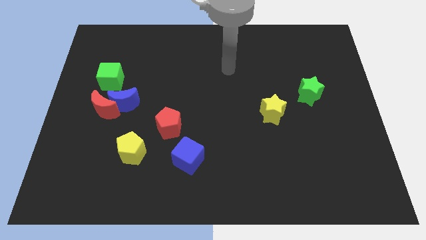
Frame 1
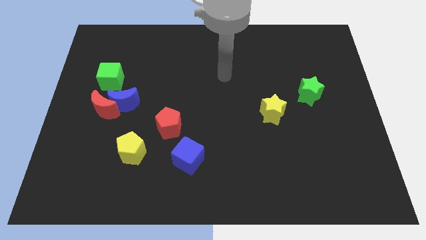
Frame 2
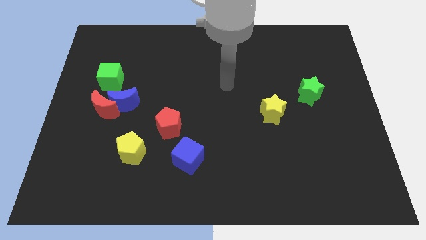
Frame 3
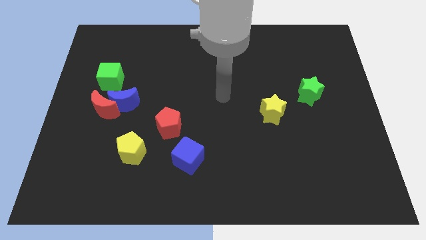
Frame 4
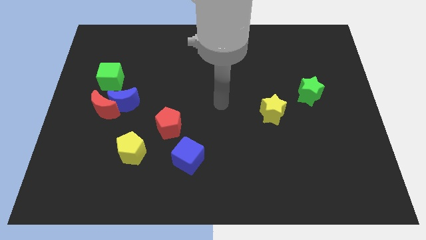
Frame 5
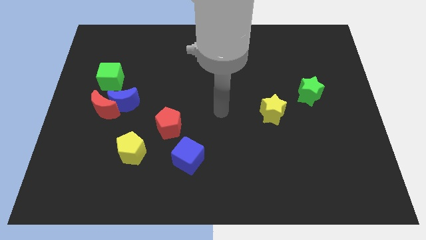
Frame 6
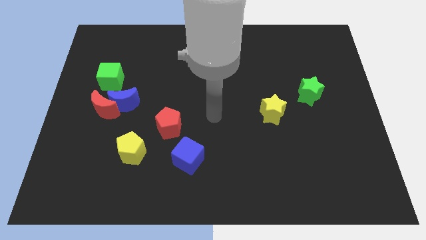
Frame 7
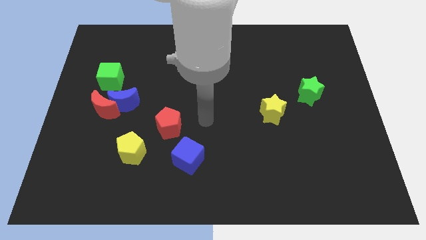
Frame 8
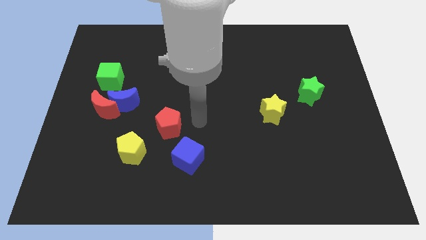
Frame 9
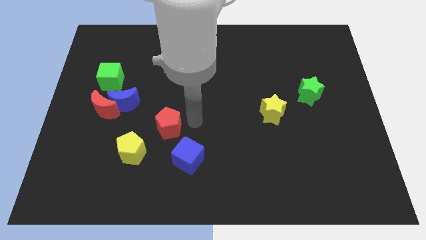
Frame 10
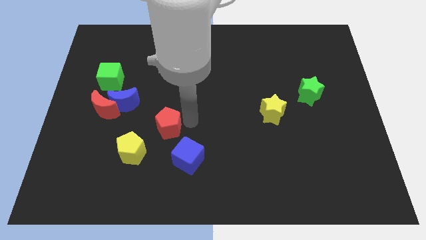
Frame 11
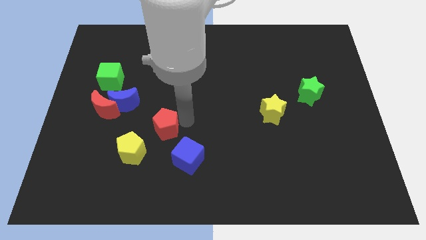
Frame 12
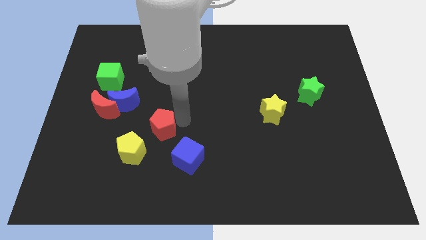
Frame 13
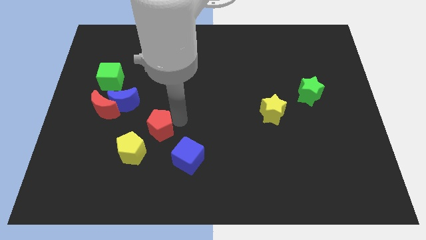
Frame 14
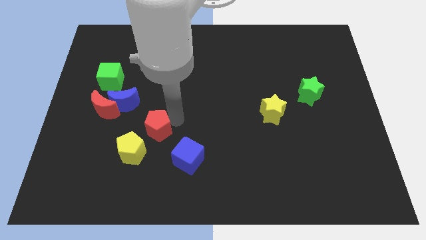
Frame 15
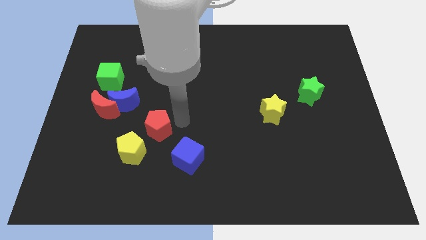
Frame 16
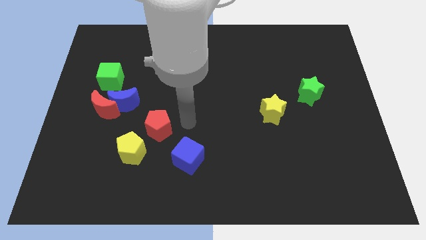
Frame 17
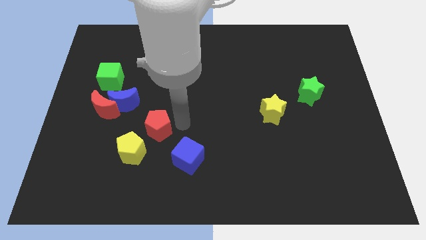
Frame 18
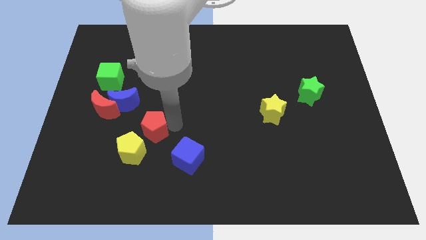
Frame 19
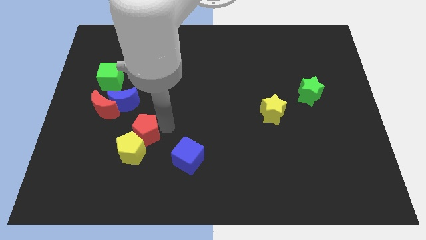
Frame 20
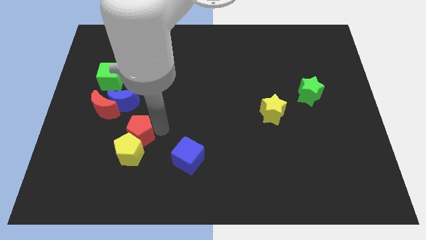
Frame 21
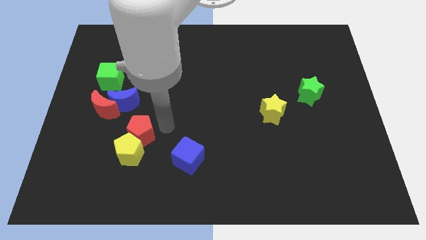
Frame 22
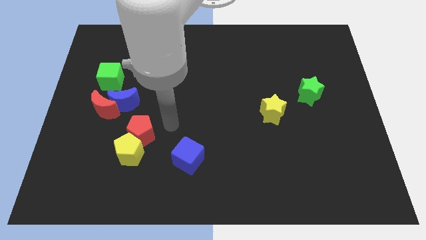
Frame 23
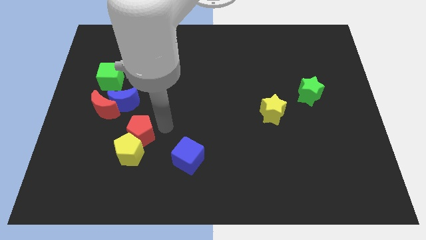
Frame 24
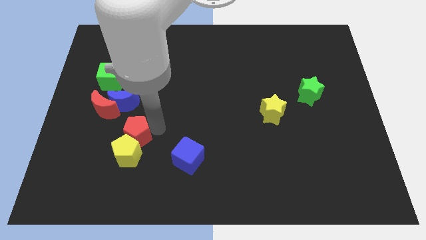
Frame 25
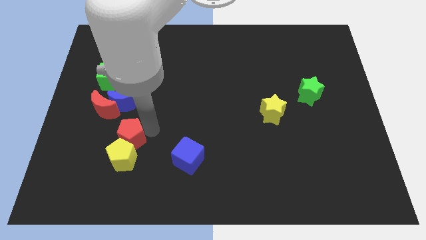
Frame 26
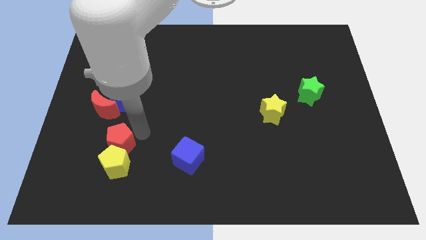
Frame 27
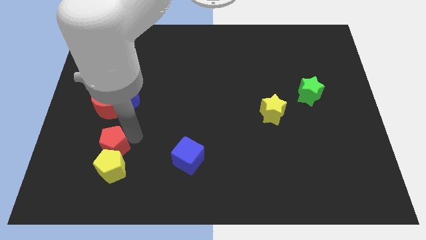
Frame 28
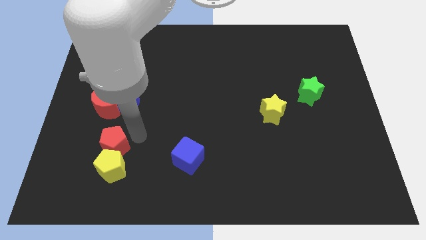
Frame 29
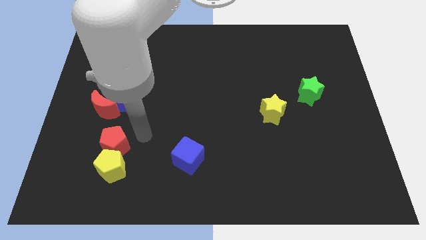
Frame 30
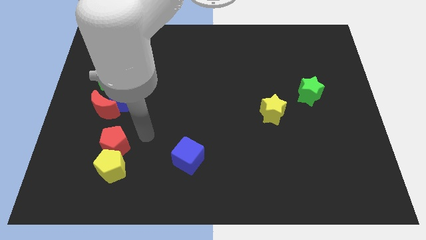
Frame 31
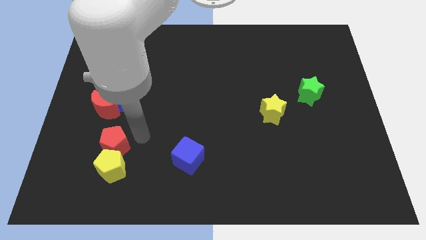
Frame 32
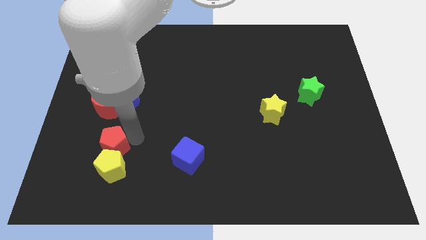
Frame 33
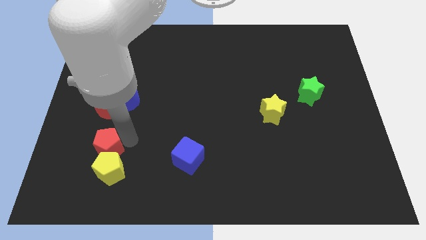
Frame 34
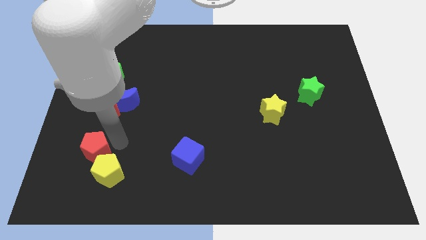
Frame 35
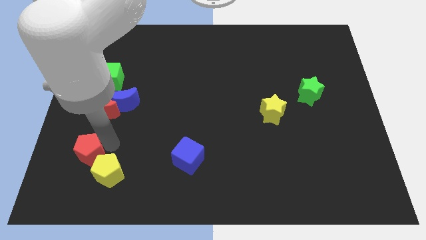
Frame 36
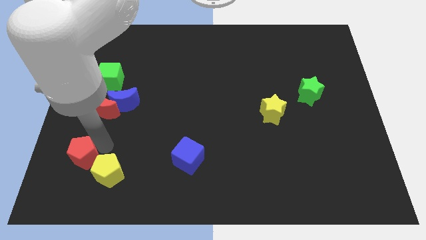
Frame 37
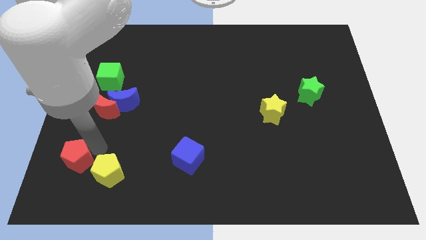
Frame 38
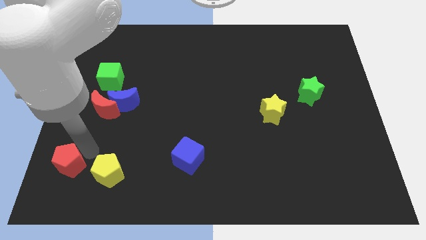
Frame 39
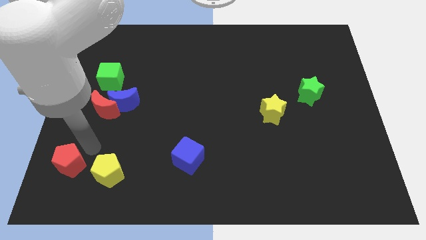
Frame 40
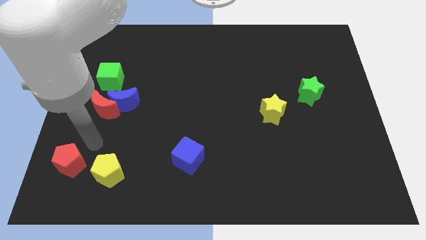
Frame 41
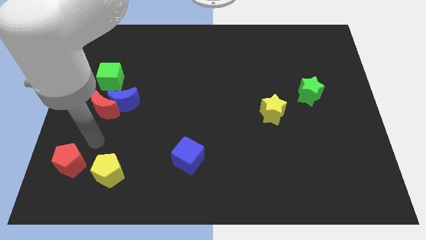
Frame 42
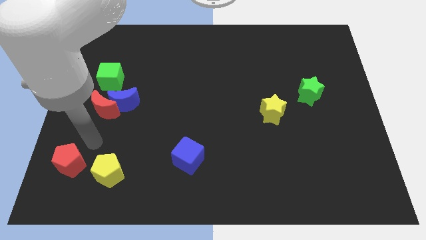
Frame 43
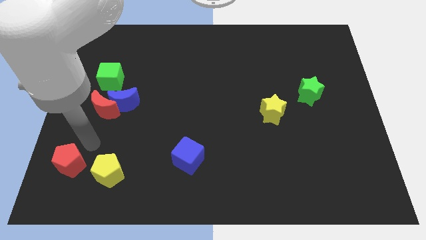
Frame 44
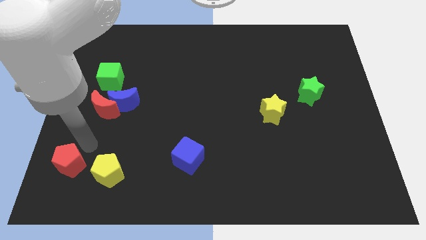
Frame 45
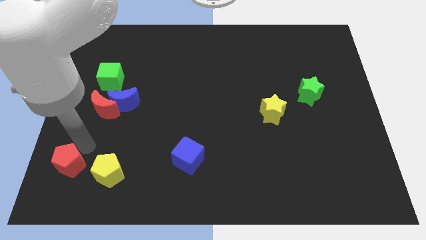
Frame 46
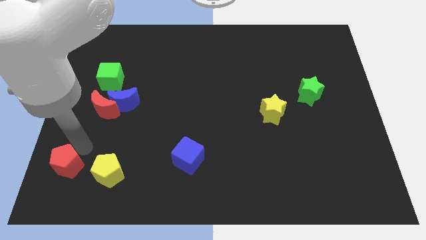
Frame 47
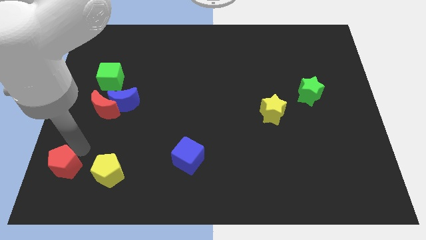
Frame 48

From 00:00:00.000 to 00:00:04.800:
put the red pentagon to the bottom left of the board

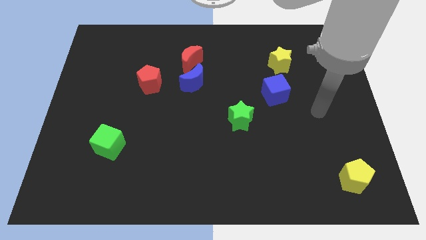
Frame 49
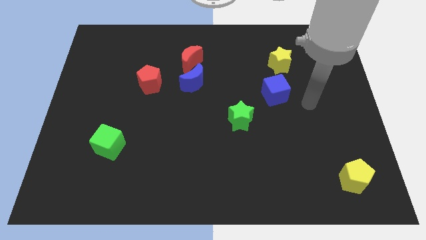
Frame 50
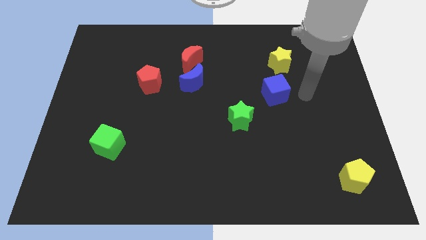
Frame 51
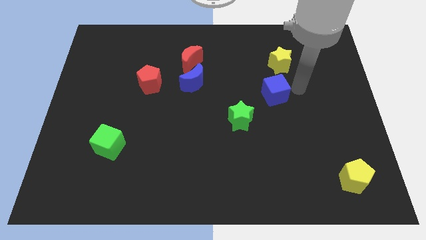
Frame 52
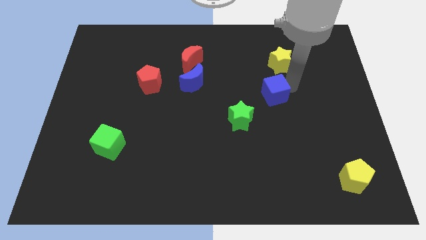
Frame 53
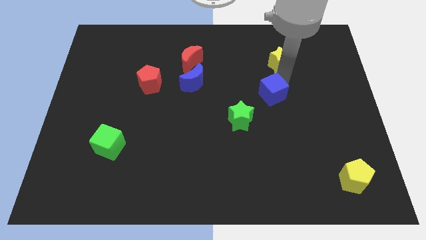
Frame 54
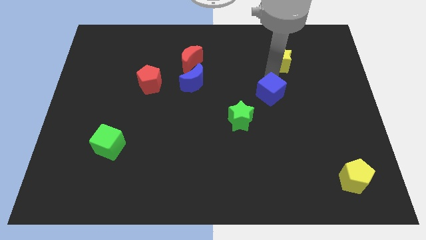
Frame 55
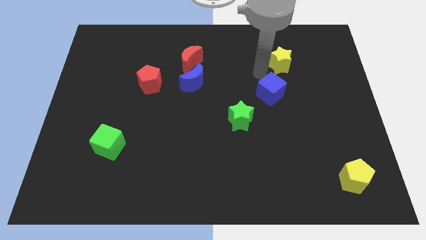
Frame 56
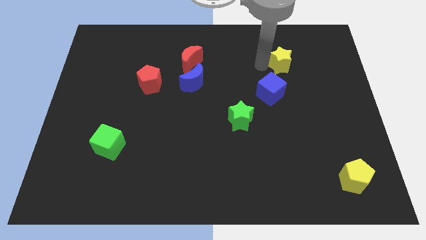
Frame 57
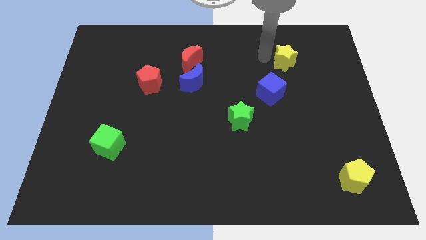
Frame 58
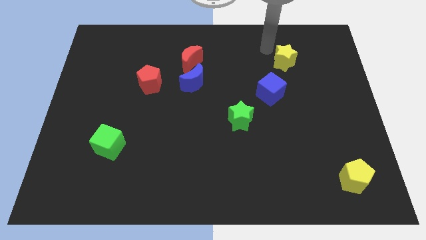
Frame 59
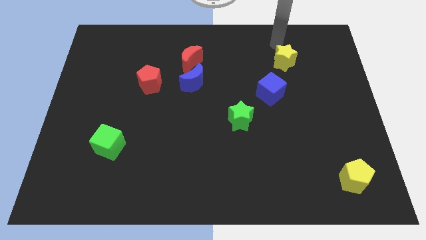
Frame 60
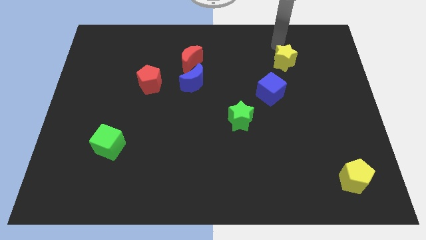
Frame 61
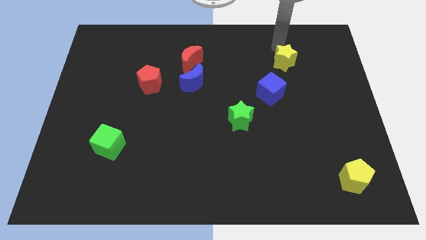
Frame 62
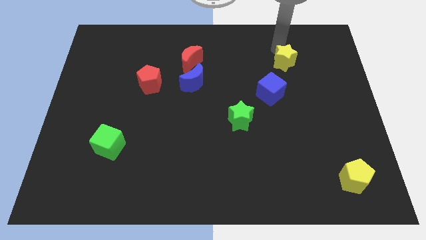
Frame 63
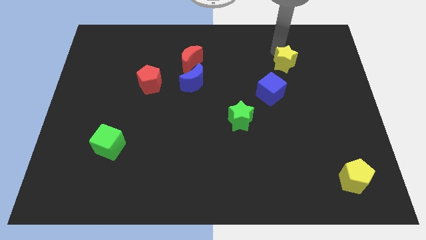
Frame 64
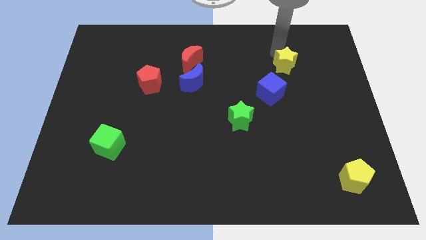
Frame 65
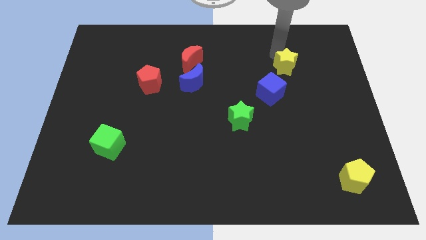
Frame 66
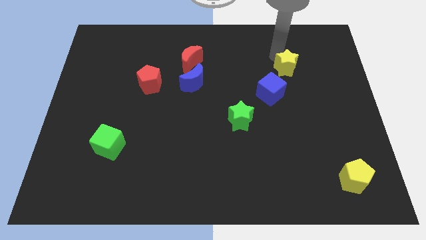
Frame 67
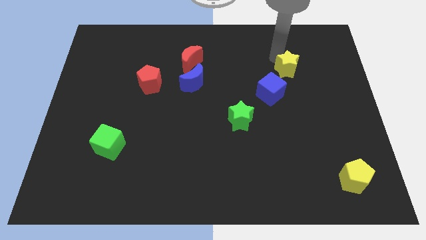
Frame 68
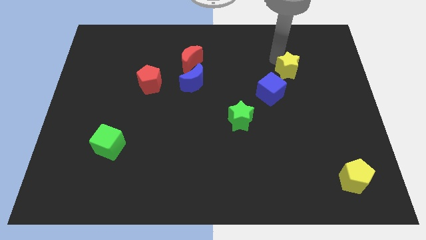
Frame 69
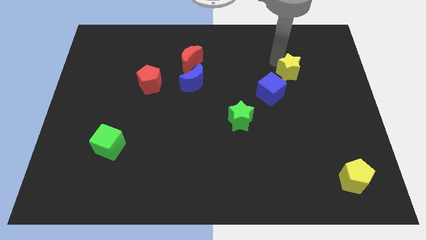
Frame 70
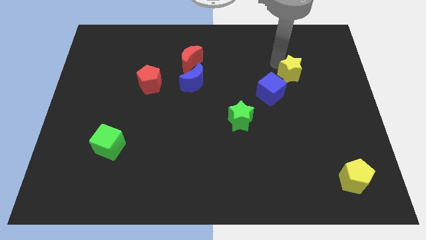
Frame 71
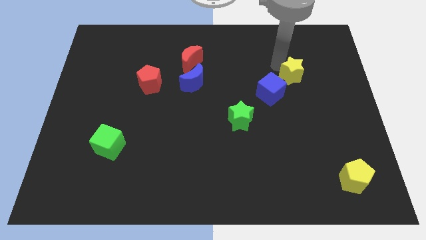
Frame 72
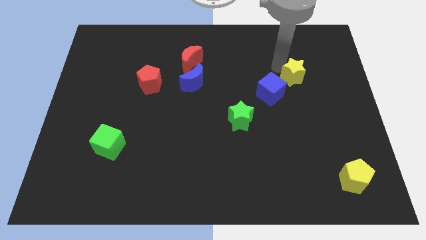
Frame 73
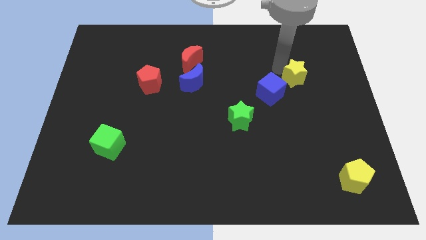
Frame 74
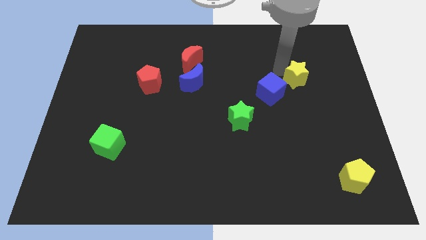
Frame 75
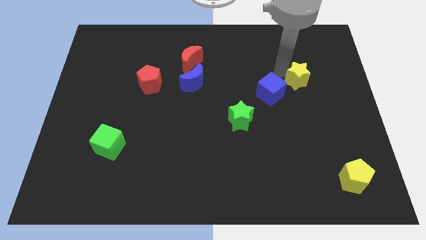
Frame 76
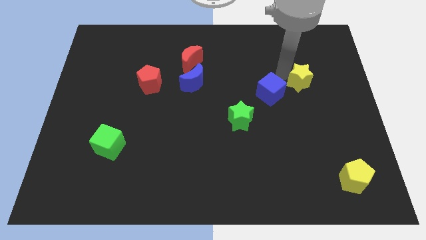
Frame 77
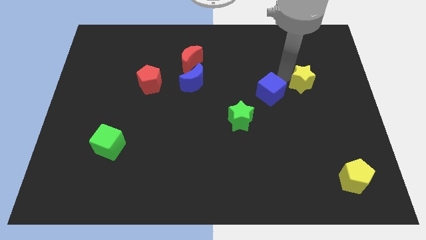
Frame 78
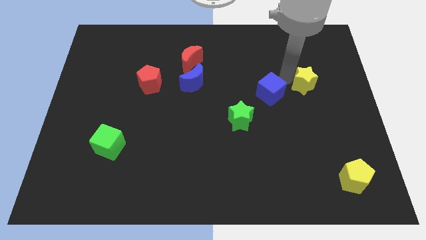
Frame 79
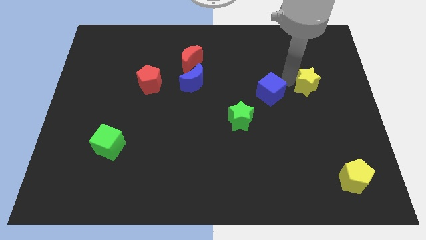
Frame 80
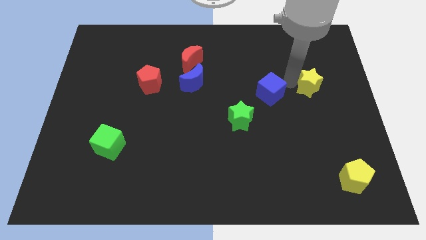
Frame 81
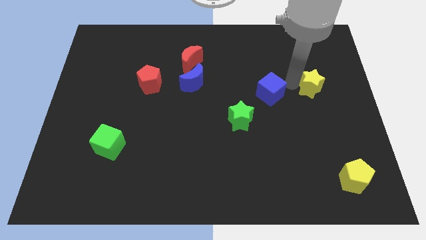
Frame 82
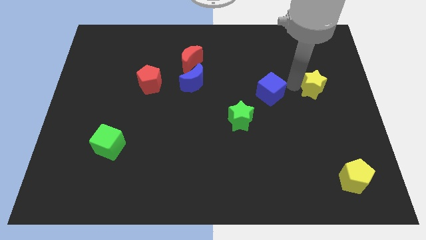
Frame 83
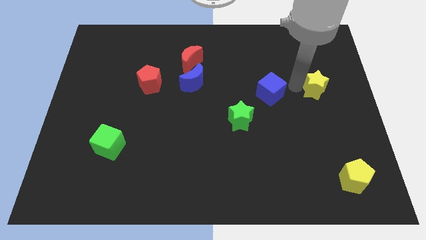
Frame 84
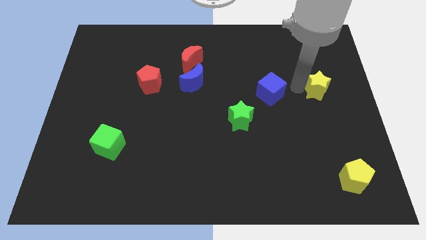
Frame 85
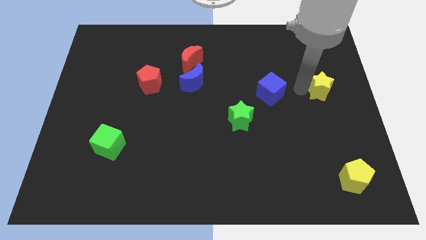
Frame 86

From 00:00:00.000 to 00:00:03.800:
put the yellow star to the center right
